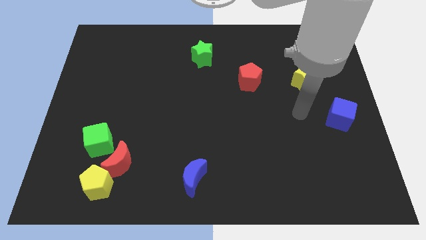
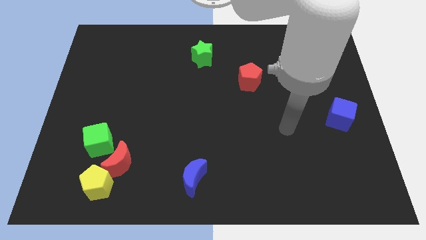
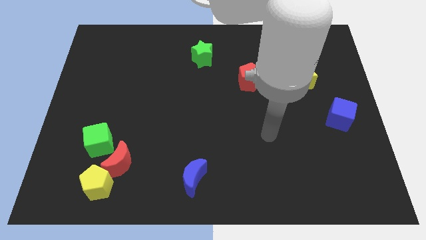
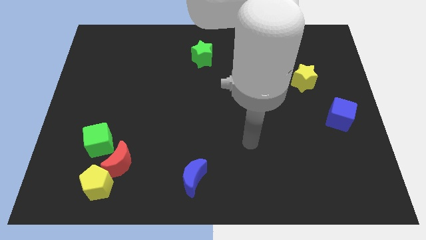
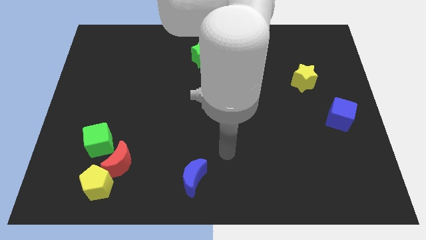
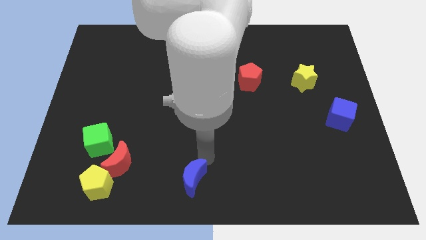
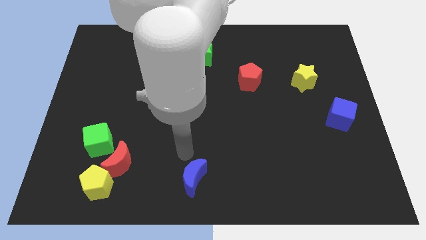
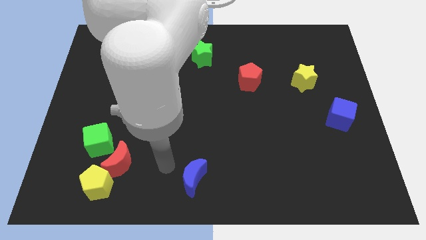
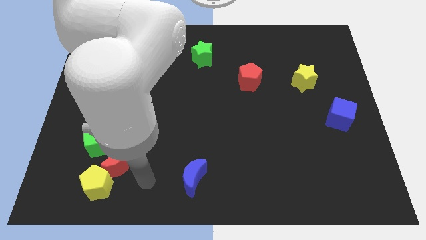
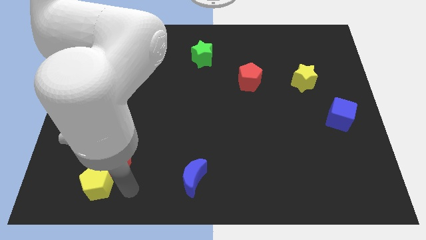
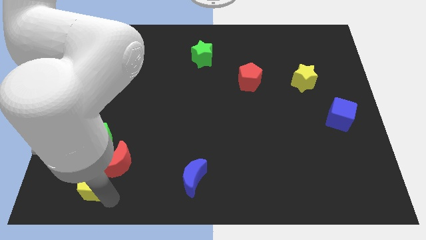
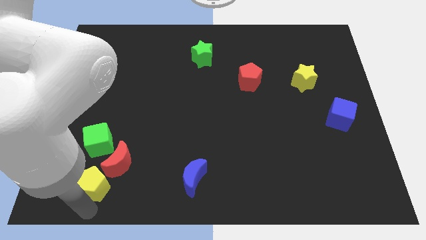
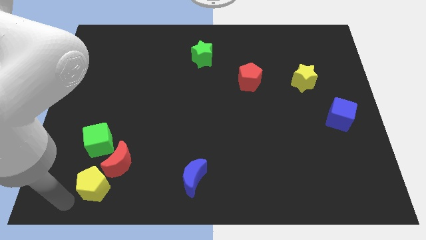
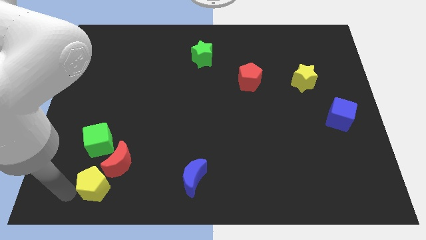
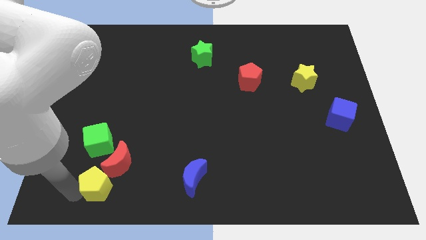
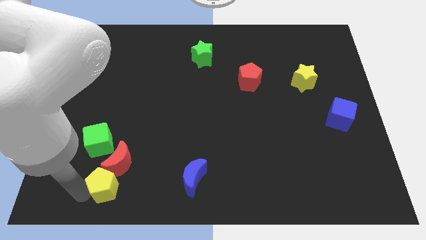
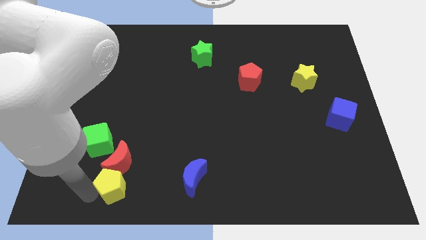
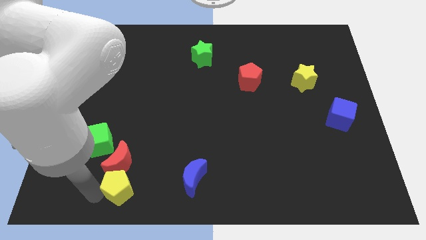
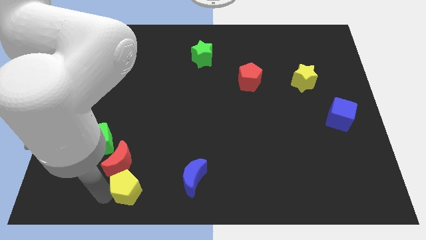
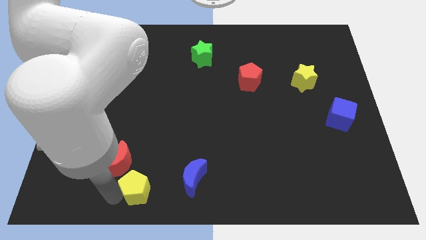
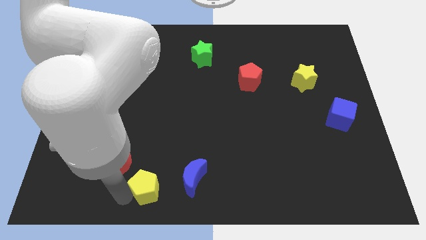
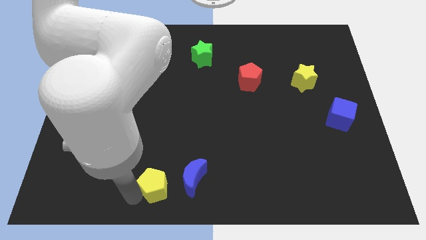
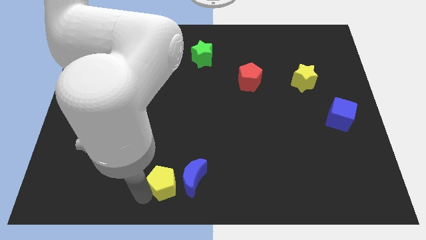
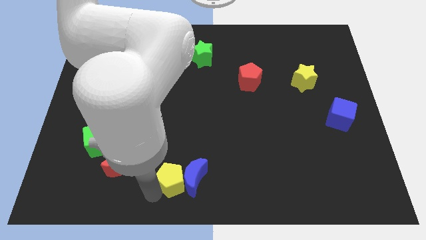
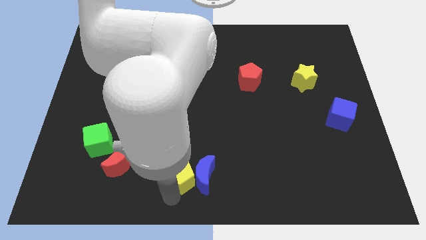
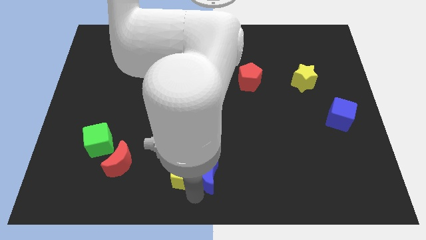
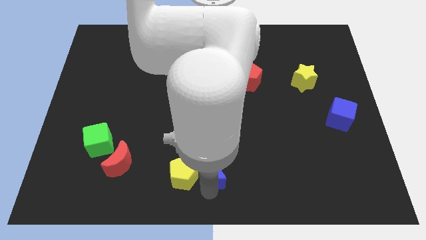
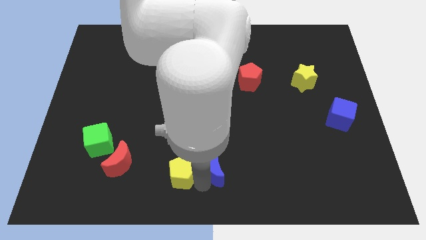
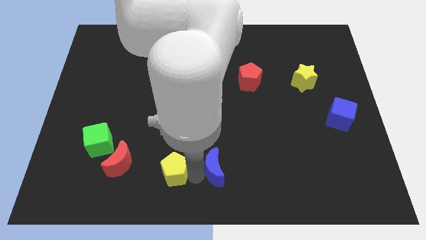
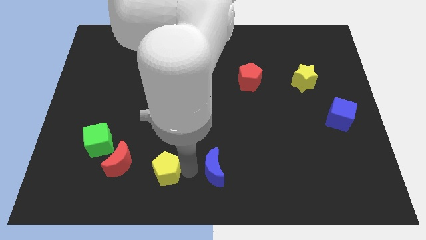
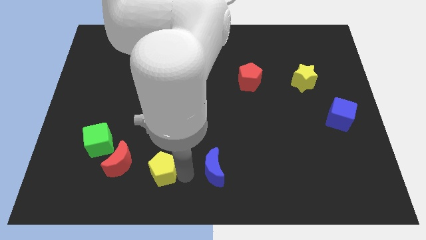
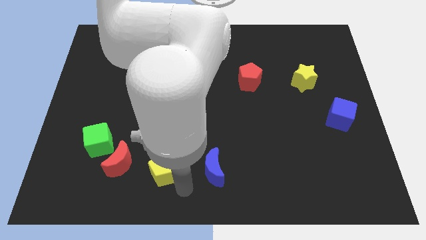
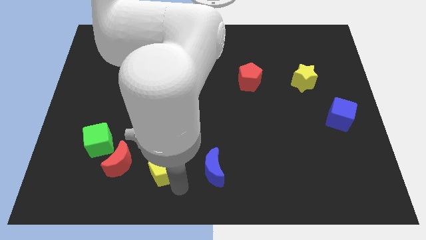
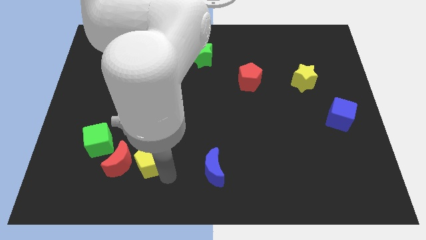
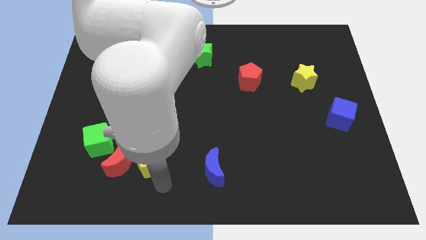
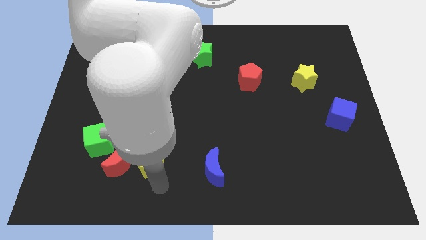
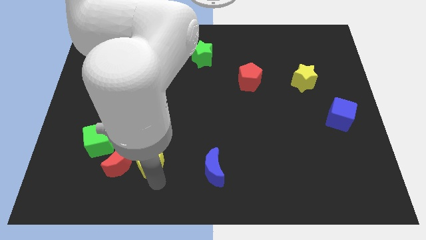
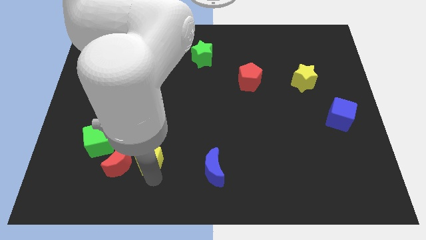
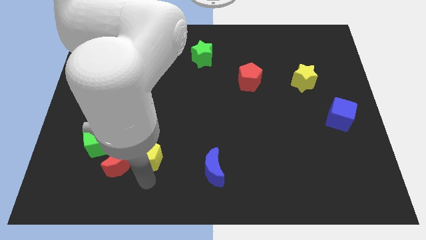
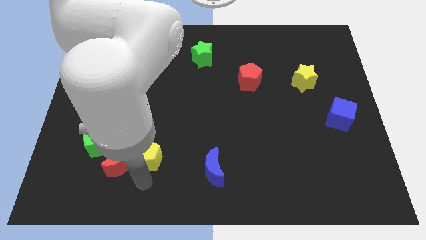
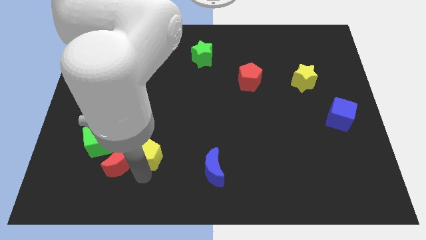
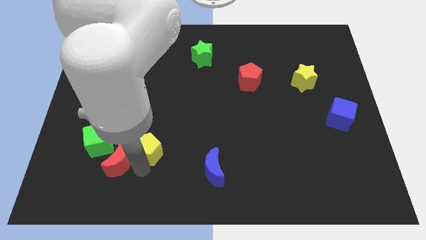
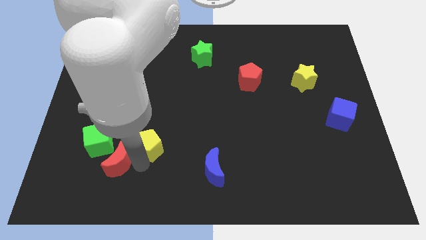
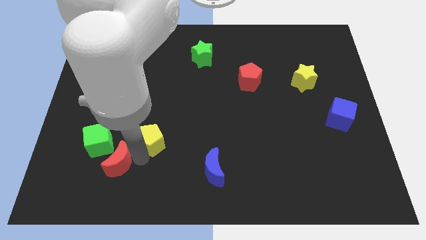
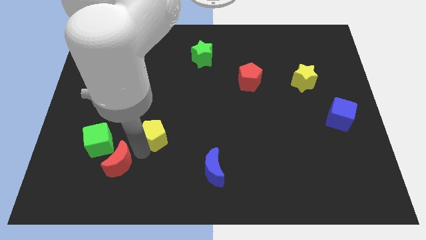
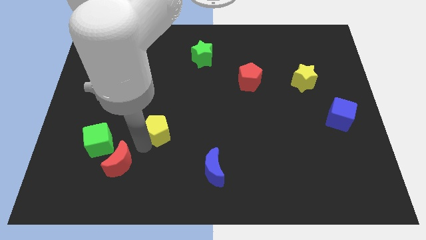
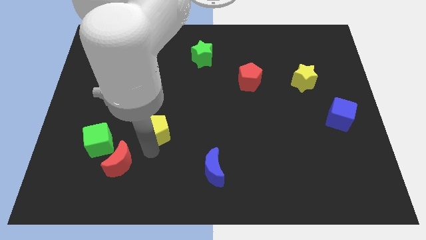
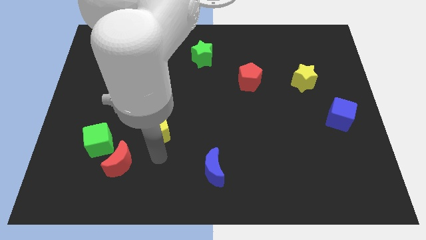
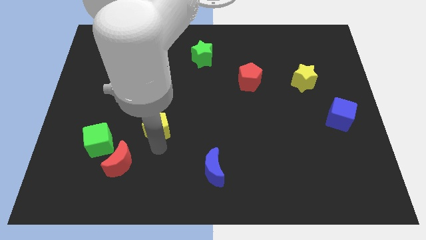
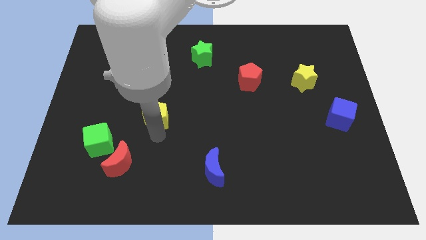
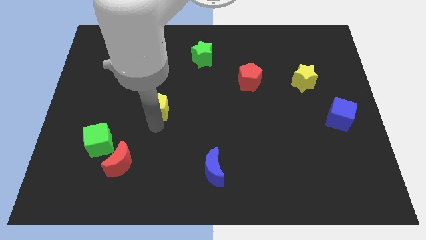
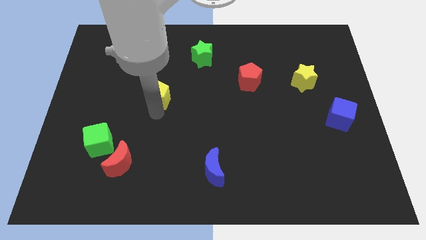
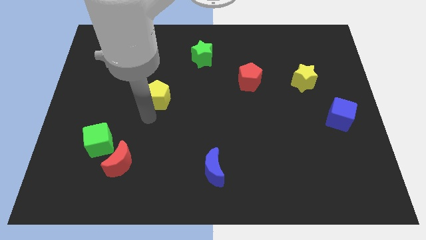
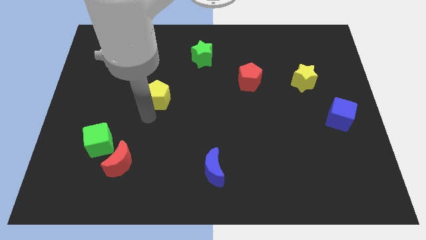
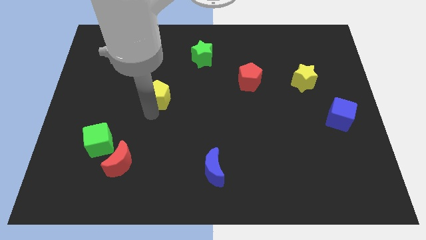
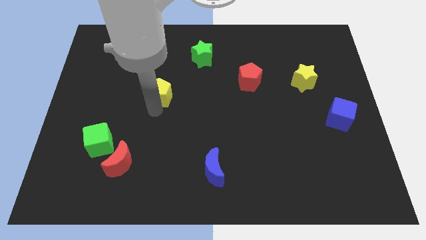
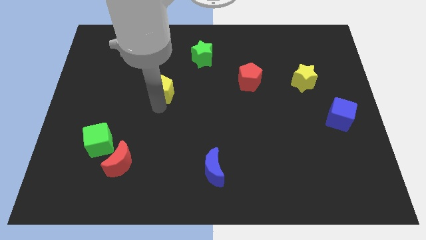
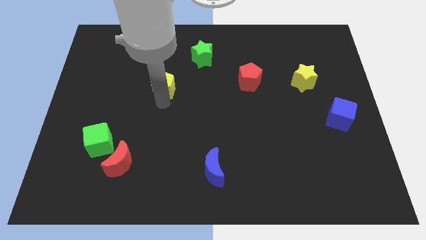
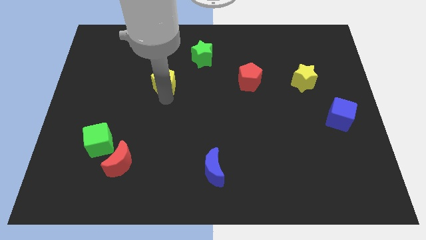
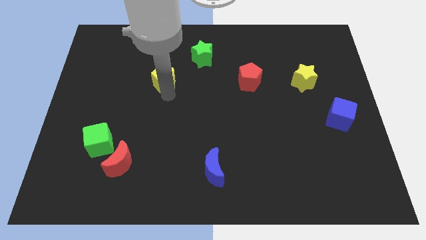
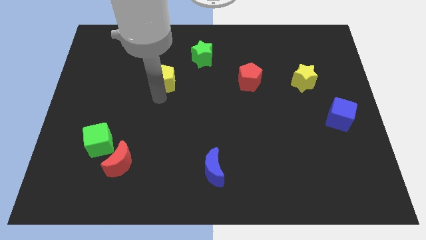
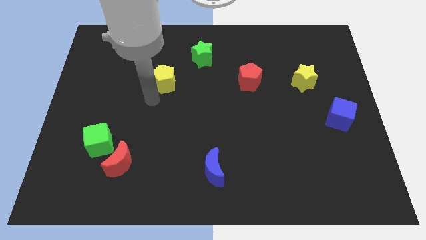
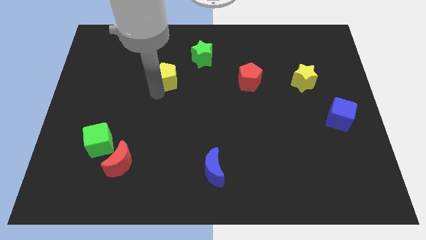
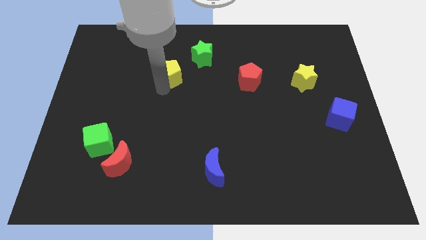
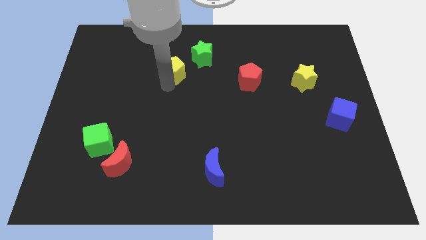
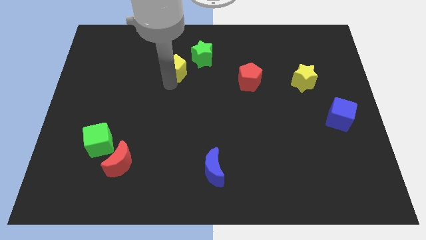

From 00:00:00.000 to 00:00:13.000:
push the yellow pentagon to the left of the green star

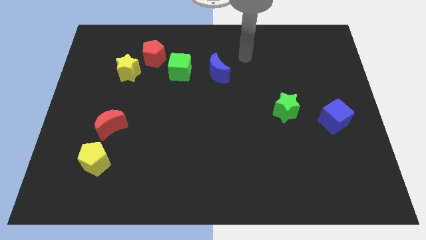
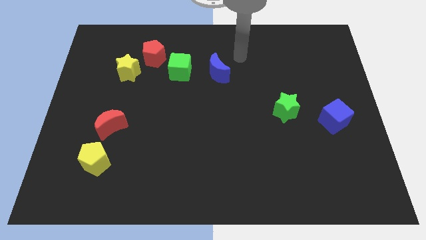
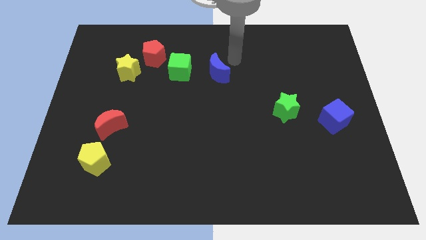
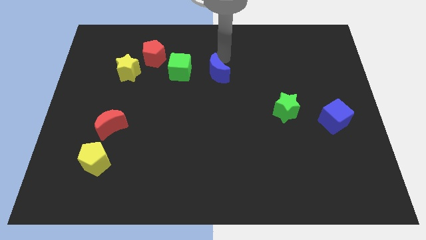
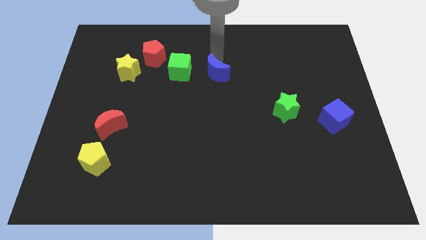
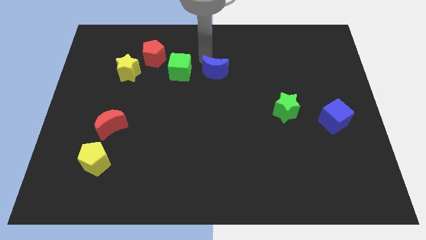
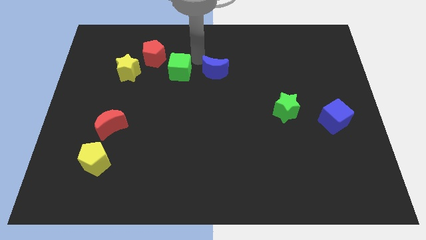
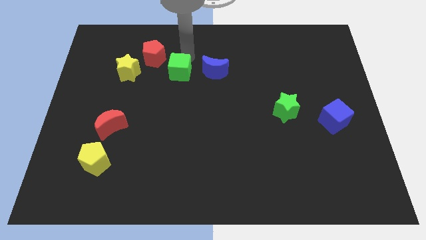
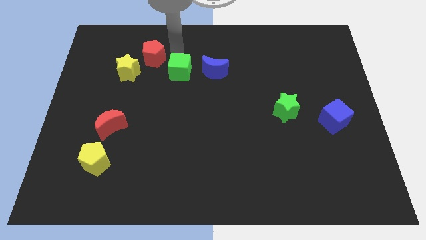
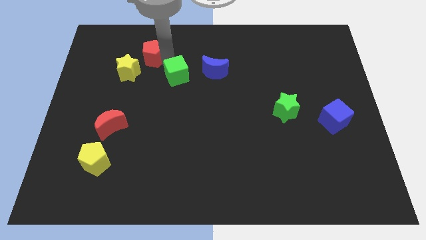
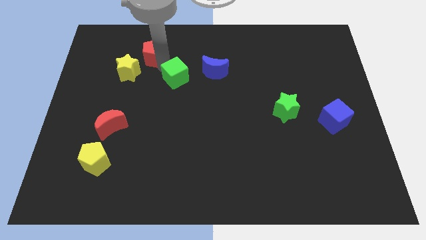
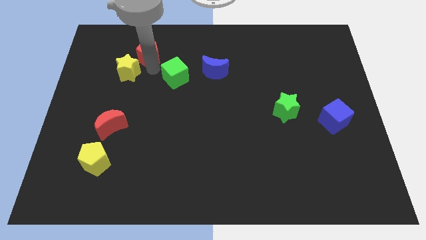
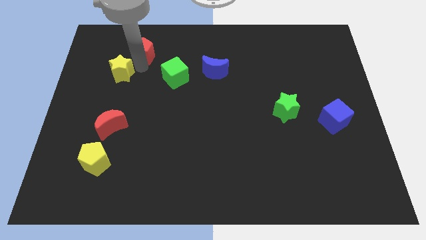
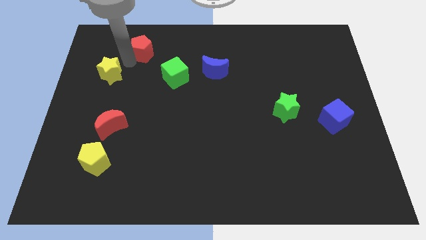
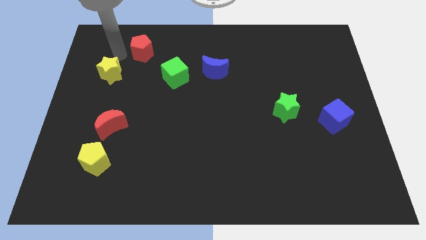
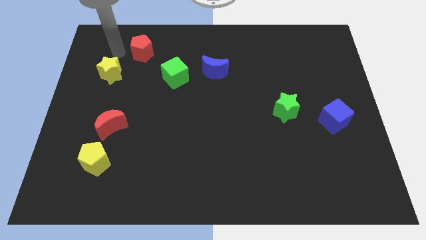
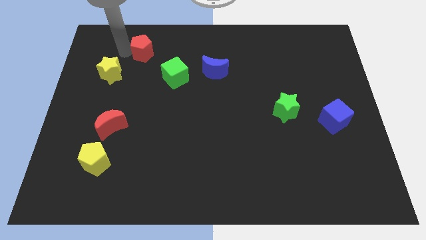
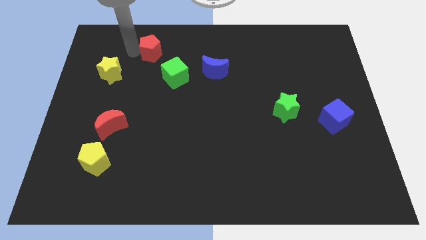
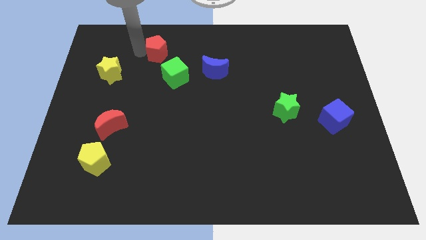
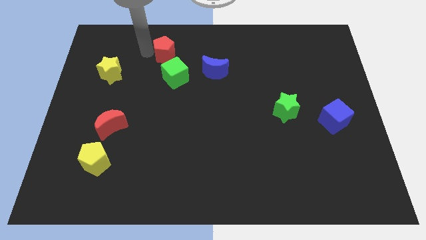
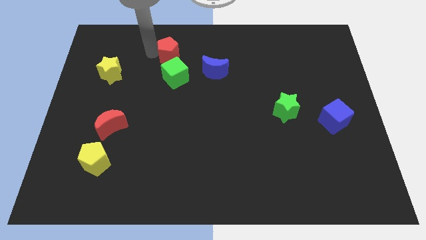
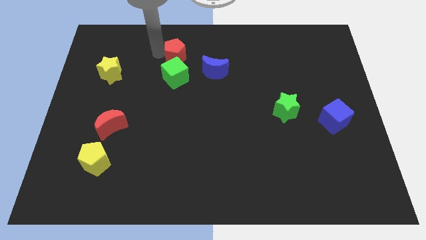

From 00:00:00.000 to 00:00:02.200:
move the red pentagon diagonally up and to the left of the blue moon
